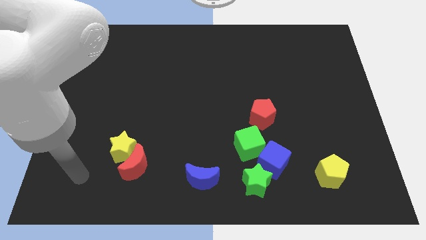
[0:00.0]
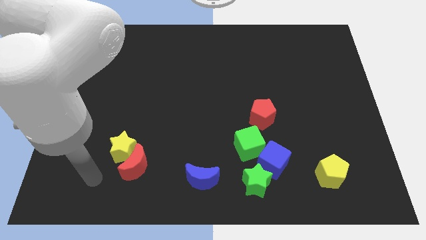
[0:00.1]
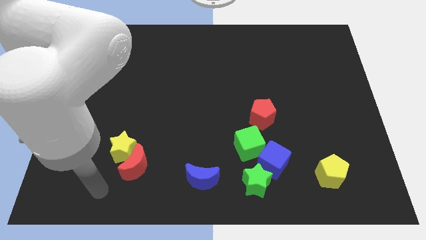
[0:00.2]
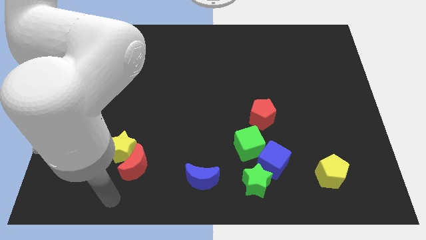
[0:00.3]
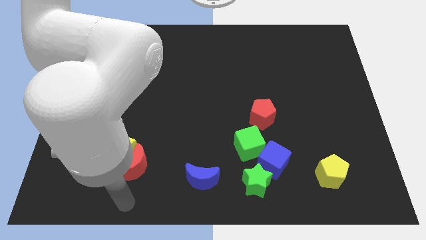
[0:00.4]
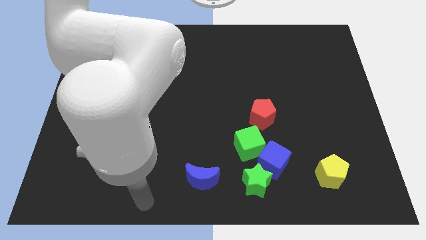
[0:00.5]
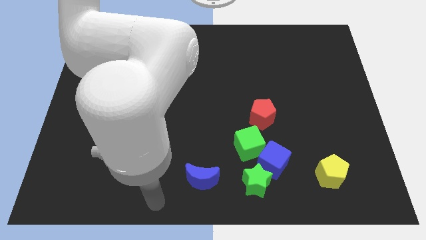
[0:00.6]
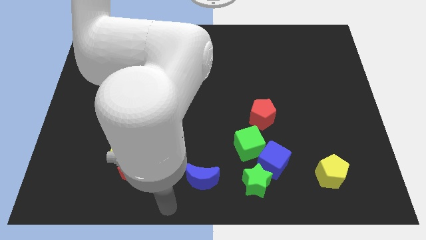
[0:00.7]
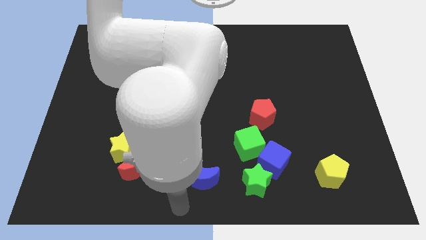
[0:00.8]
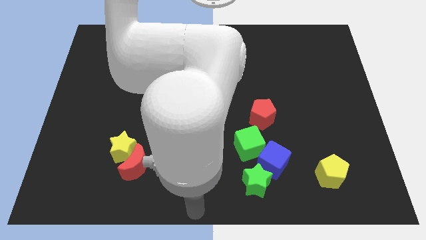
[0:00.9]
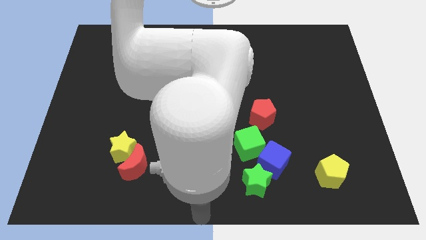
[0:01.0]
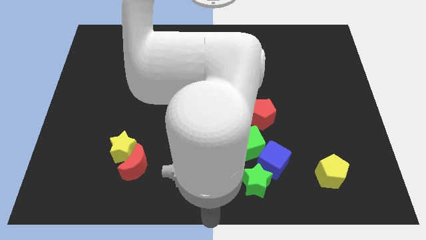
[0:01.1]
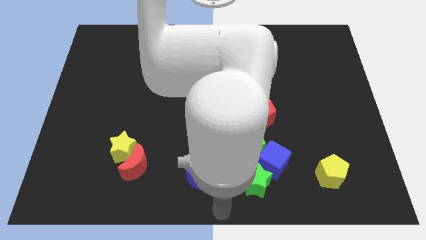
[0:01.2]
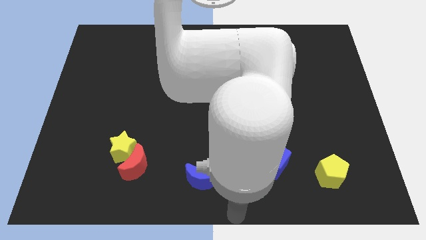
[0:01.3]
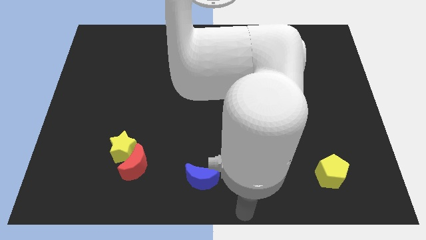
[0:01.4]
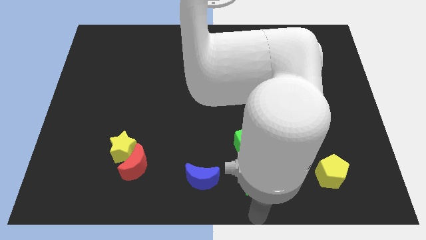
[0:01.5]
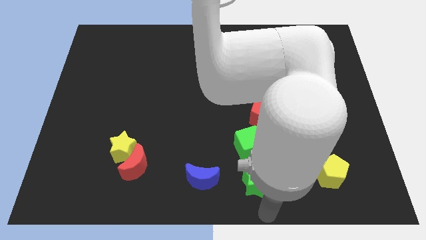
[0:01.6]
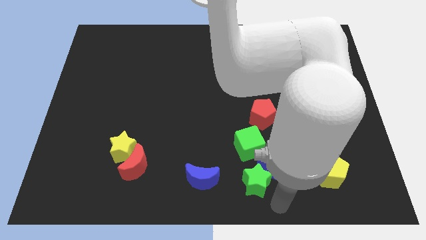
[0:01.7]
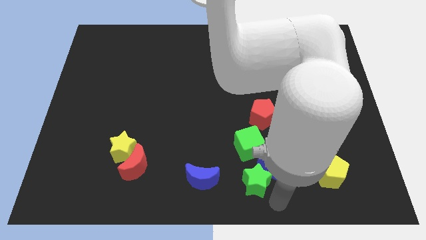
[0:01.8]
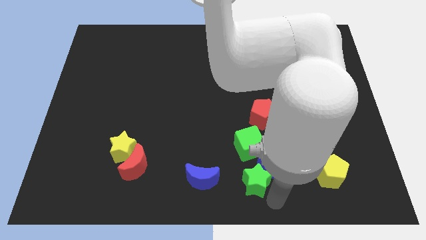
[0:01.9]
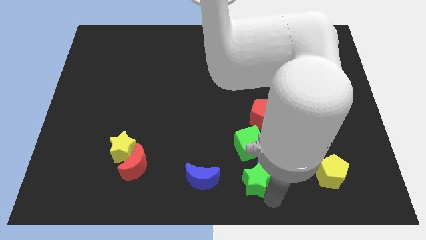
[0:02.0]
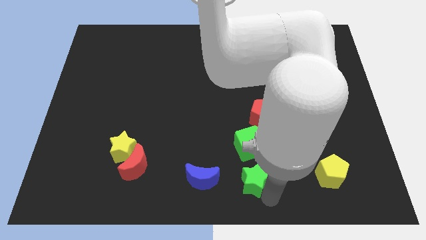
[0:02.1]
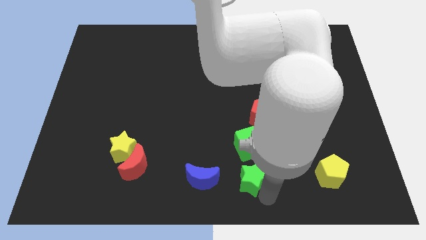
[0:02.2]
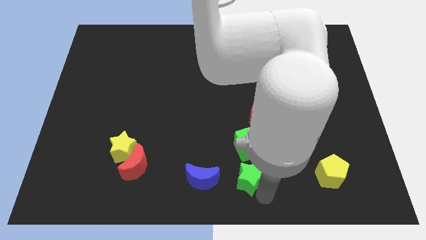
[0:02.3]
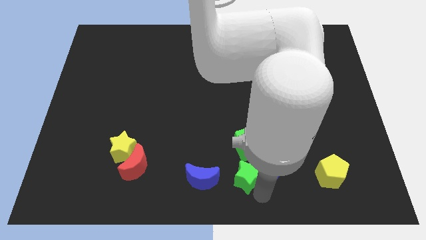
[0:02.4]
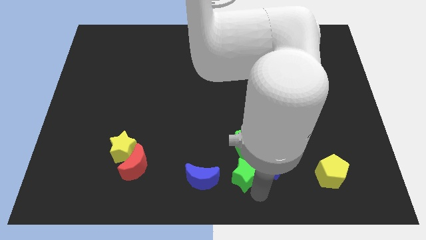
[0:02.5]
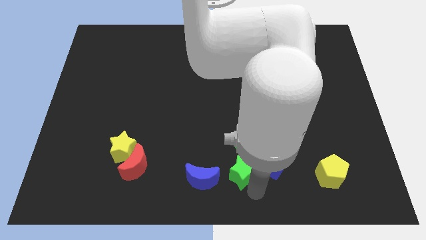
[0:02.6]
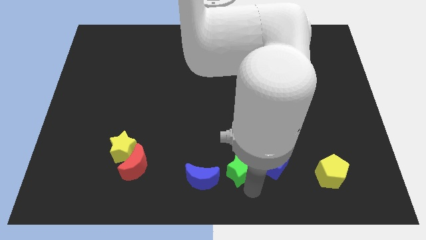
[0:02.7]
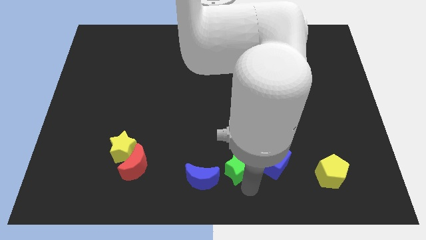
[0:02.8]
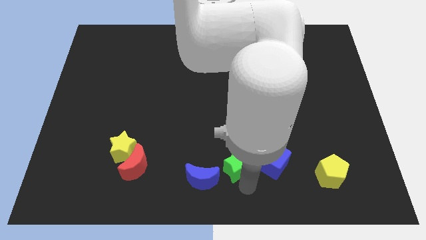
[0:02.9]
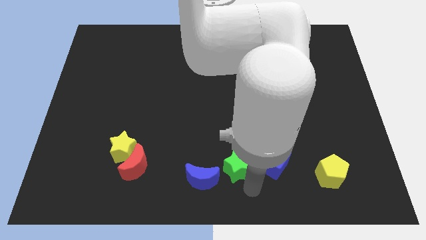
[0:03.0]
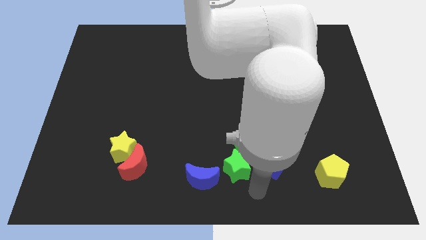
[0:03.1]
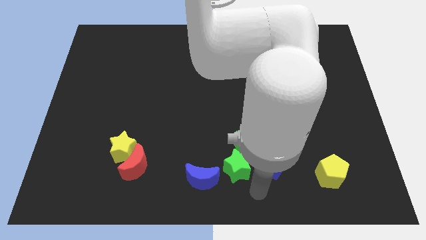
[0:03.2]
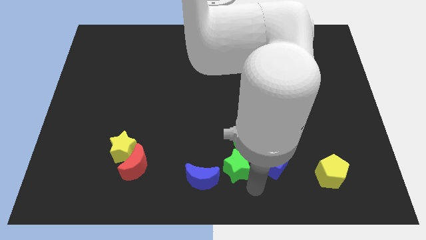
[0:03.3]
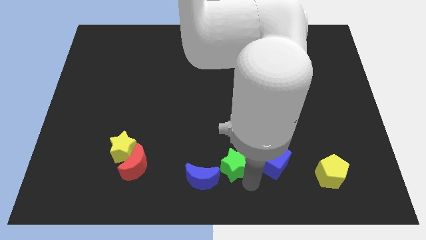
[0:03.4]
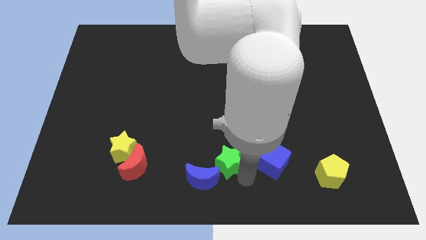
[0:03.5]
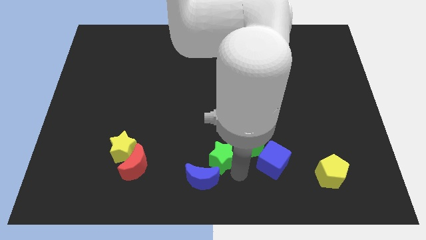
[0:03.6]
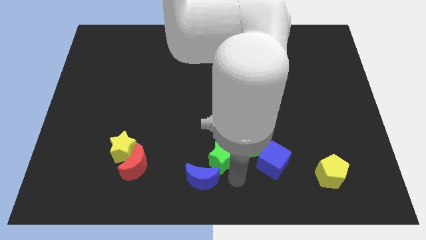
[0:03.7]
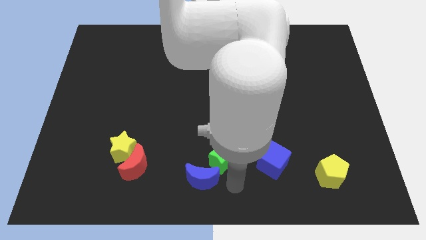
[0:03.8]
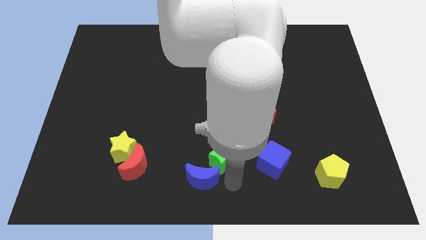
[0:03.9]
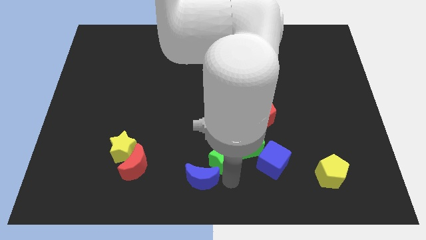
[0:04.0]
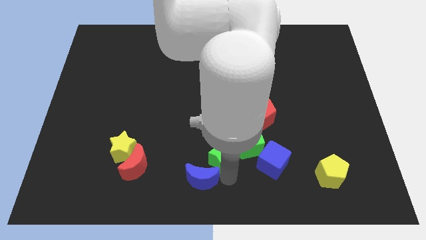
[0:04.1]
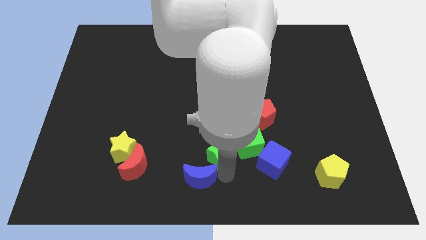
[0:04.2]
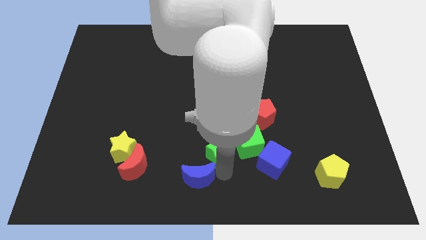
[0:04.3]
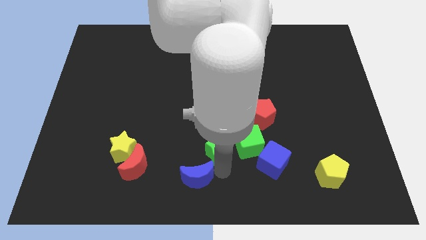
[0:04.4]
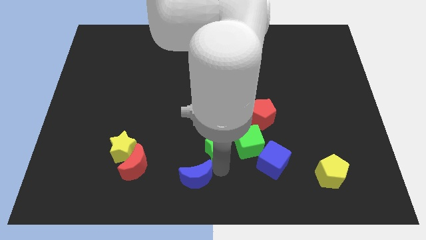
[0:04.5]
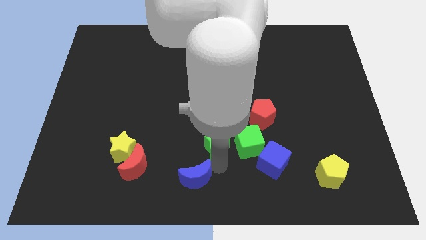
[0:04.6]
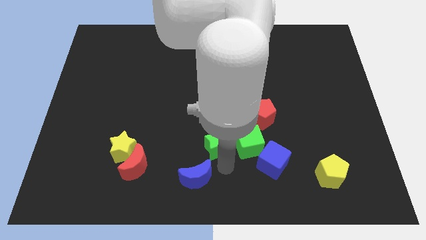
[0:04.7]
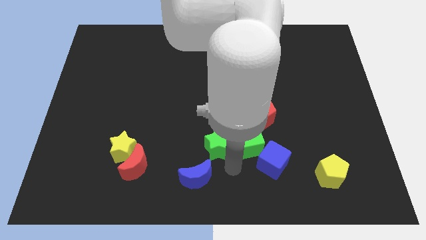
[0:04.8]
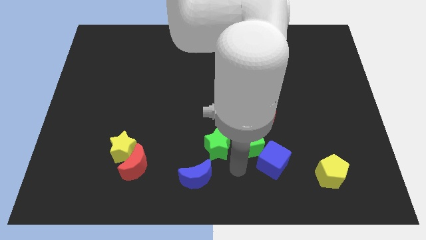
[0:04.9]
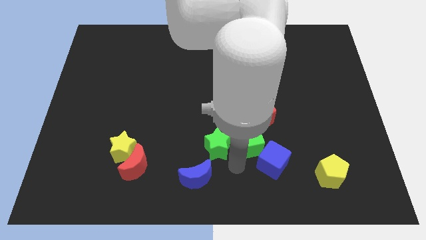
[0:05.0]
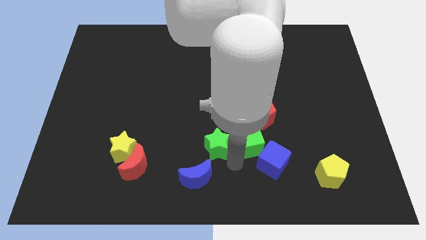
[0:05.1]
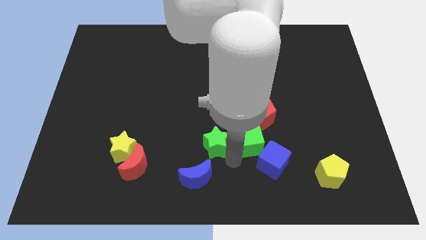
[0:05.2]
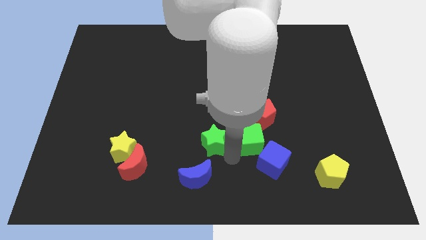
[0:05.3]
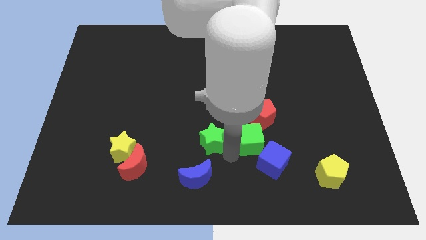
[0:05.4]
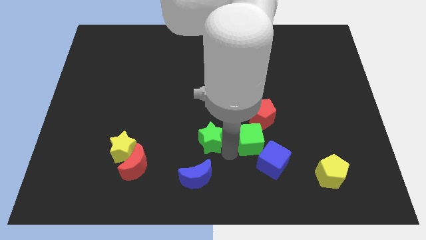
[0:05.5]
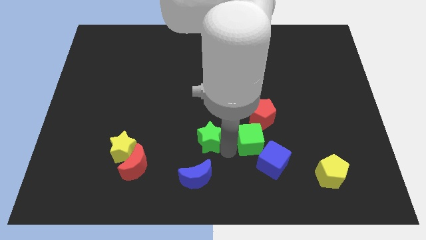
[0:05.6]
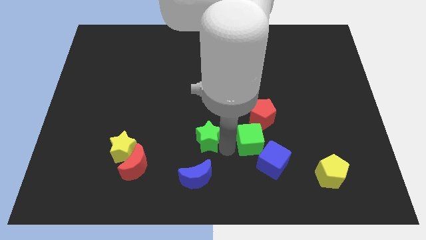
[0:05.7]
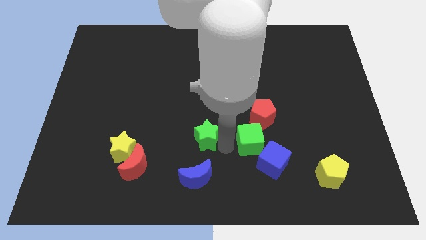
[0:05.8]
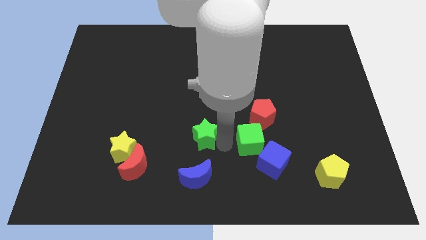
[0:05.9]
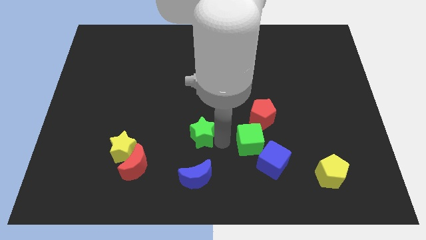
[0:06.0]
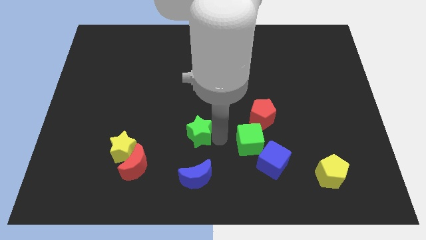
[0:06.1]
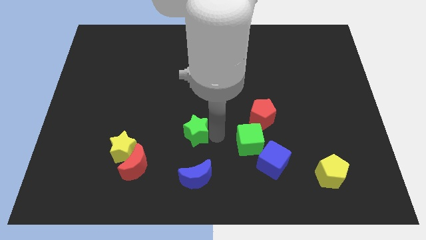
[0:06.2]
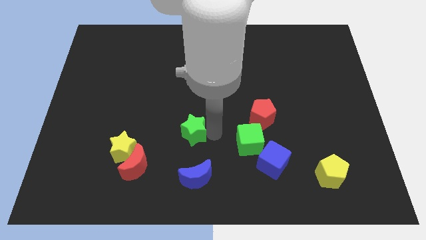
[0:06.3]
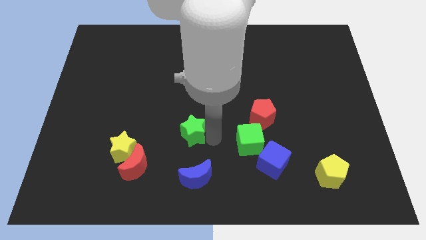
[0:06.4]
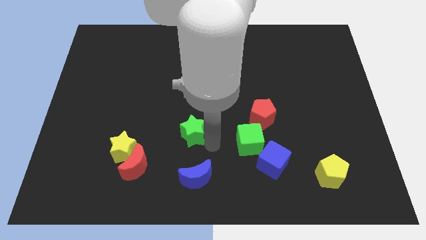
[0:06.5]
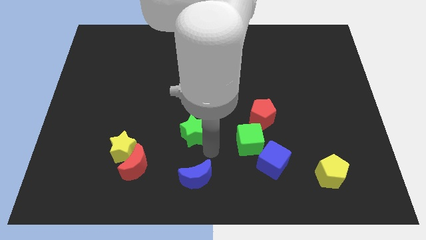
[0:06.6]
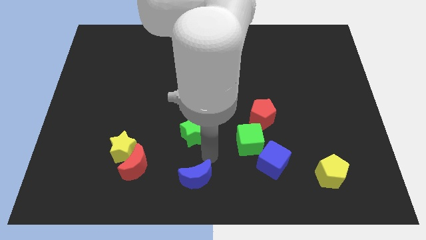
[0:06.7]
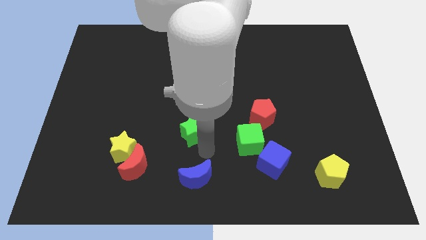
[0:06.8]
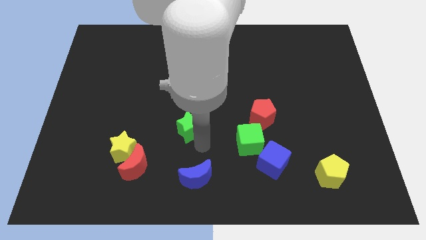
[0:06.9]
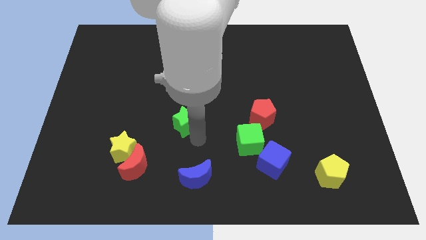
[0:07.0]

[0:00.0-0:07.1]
push the green star up and then to the left

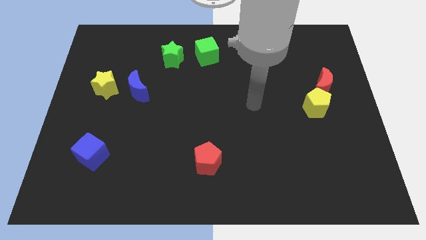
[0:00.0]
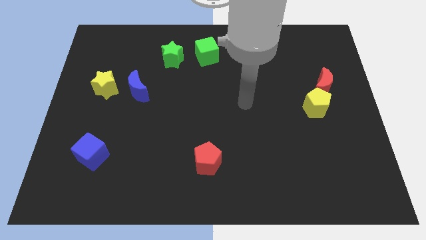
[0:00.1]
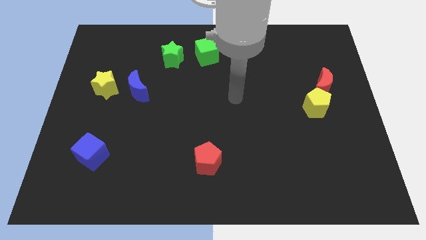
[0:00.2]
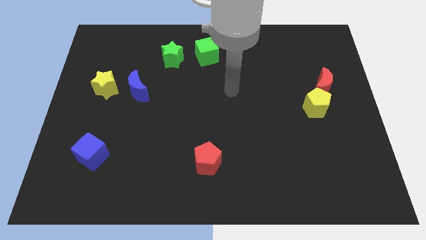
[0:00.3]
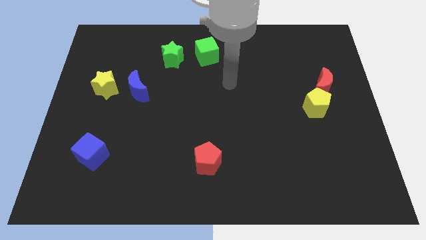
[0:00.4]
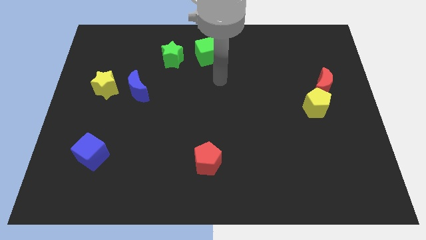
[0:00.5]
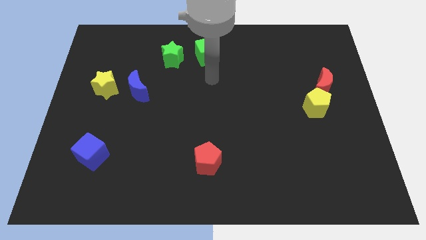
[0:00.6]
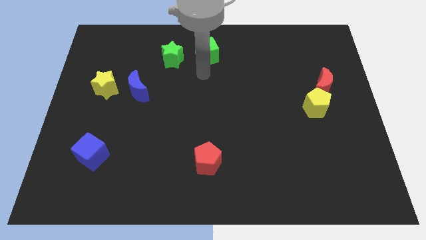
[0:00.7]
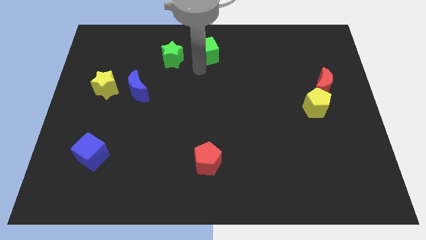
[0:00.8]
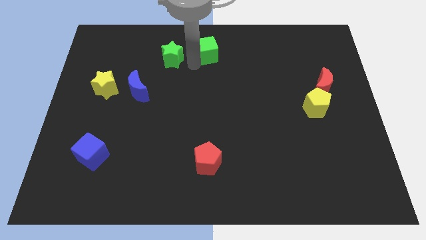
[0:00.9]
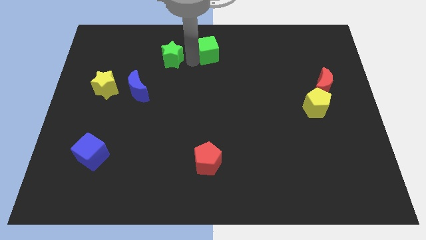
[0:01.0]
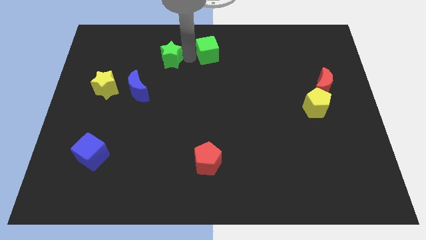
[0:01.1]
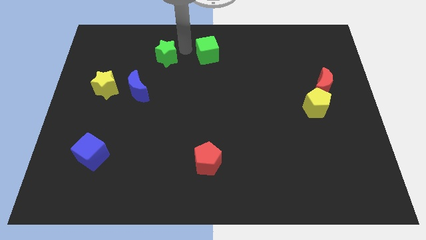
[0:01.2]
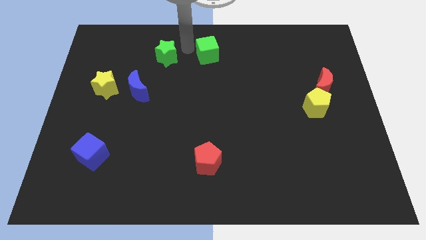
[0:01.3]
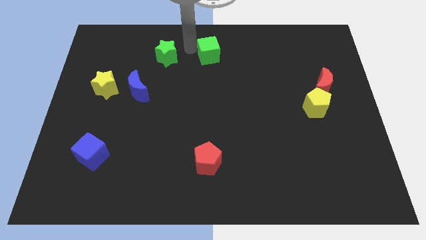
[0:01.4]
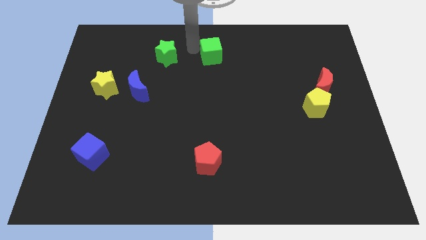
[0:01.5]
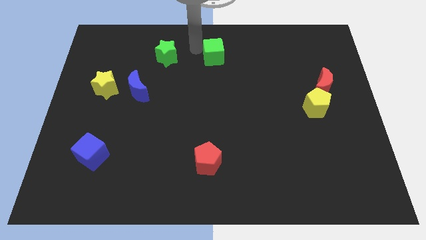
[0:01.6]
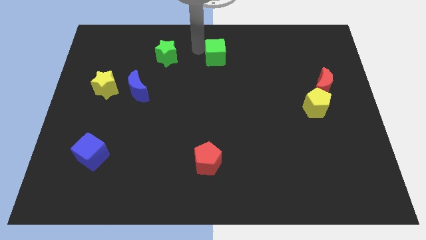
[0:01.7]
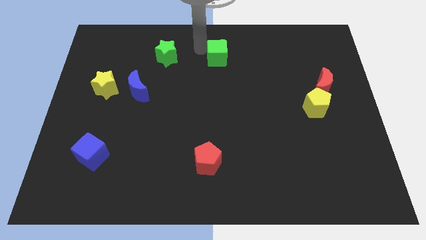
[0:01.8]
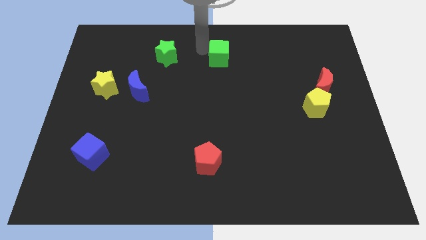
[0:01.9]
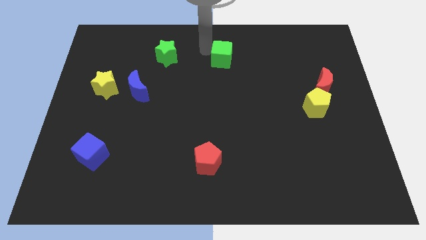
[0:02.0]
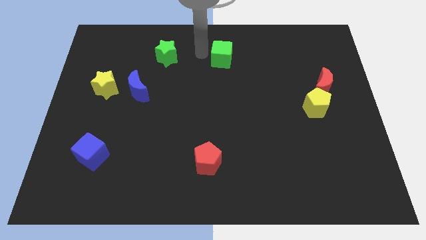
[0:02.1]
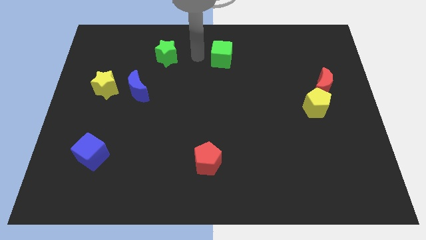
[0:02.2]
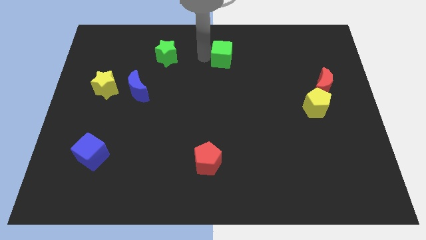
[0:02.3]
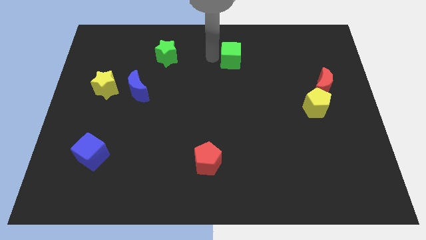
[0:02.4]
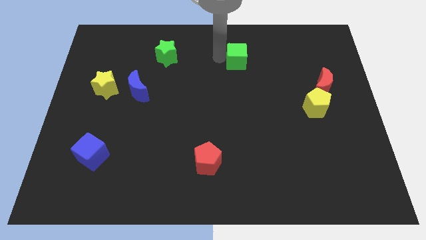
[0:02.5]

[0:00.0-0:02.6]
push the green cube to the right a little
